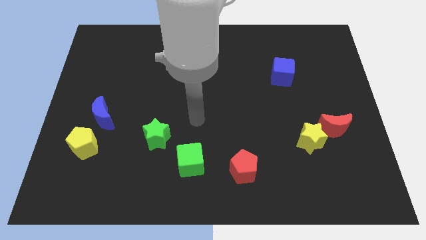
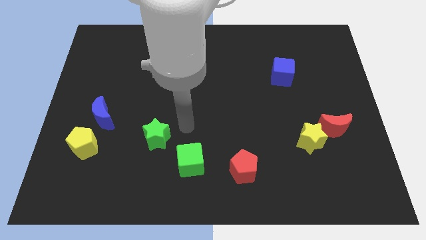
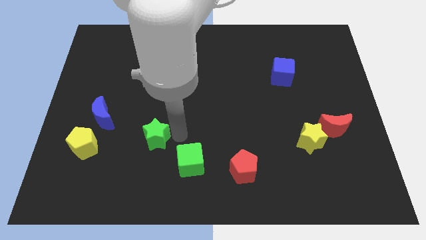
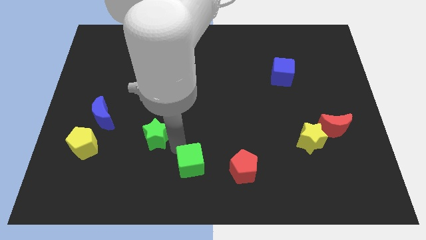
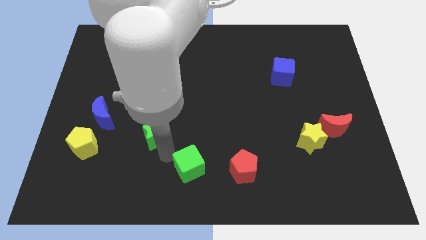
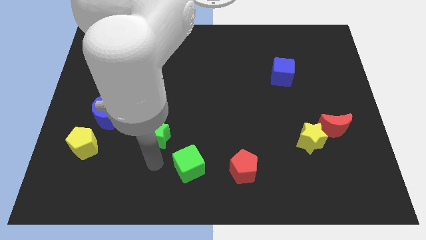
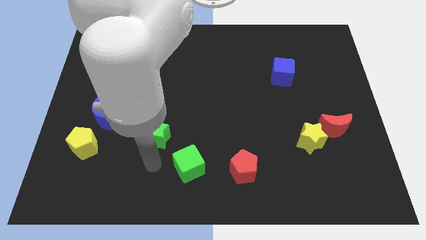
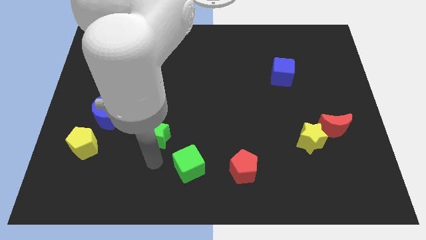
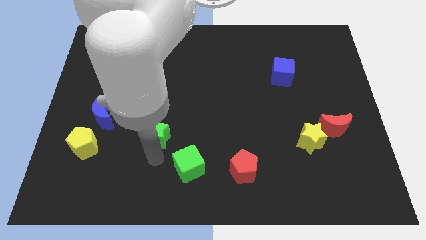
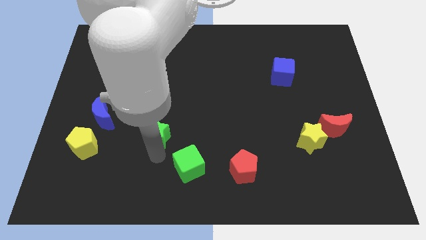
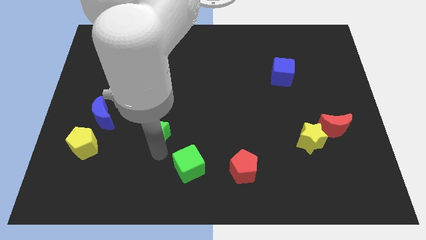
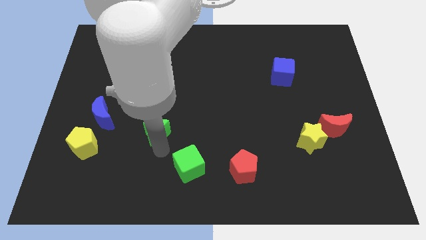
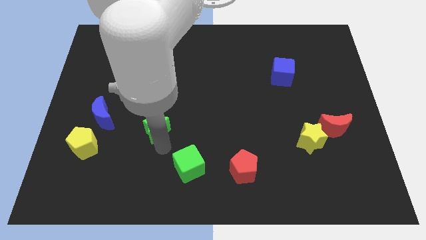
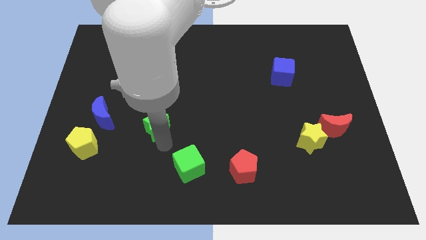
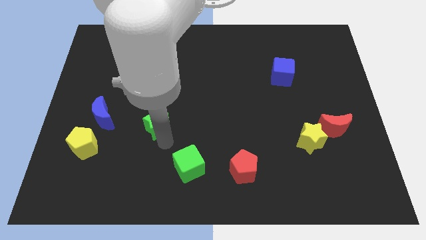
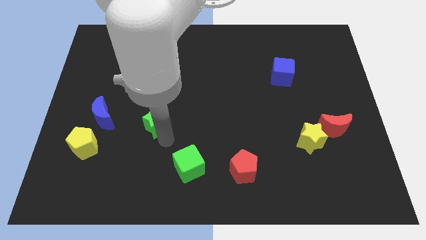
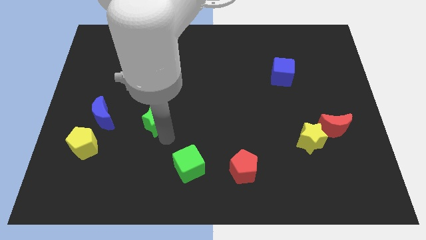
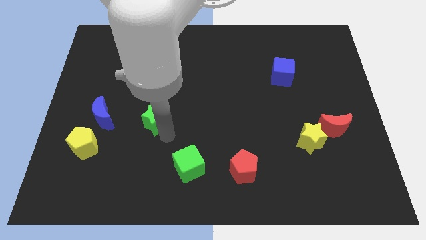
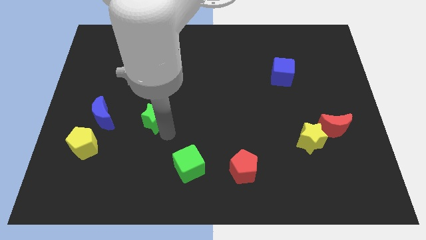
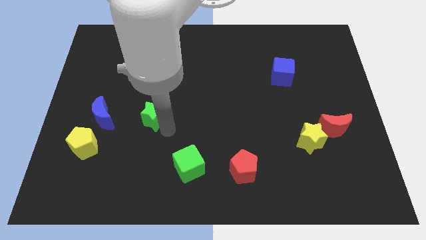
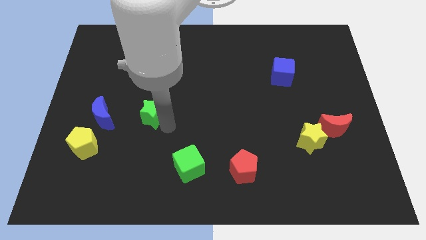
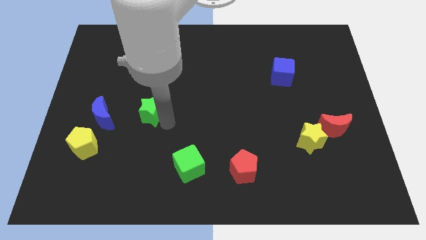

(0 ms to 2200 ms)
slightly push the green star upwards

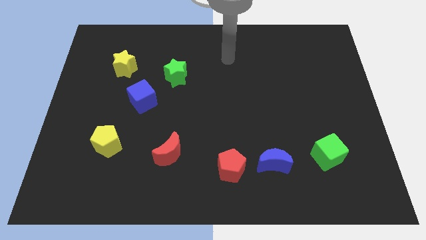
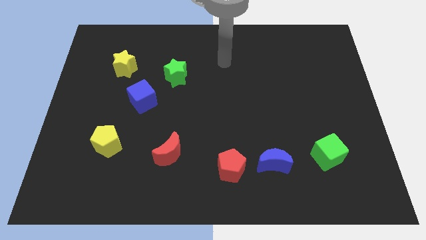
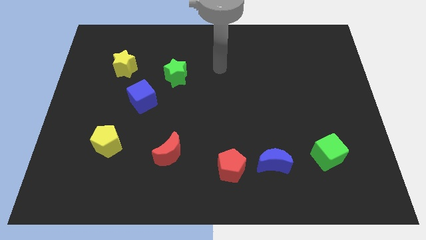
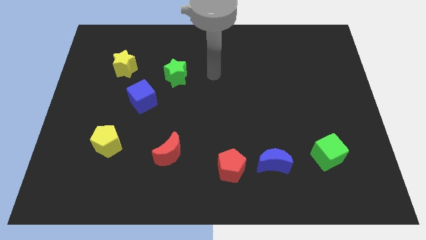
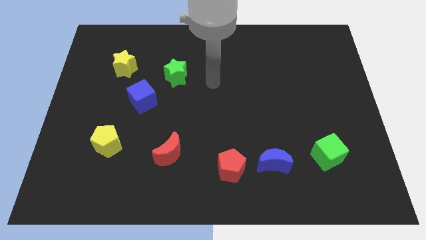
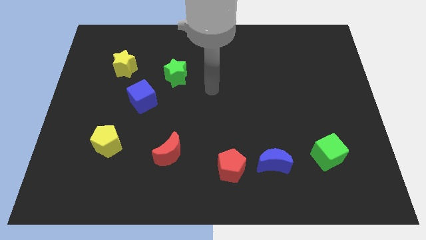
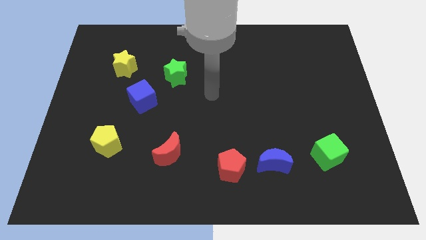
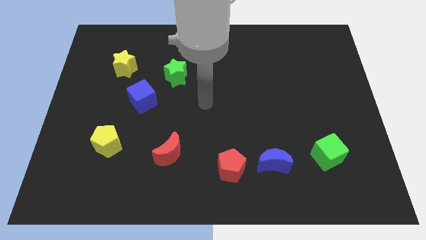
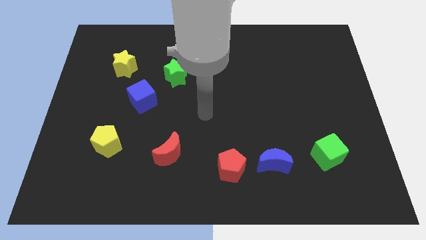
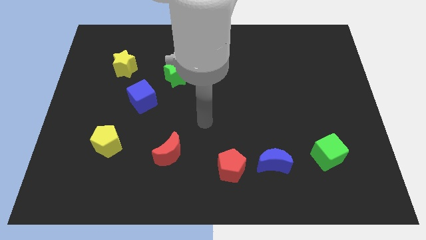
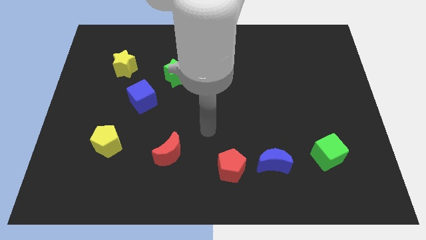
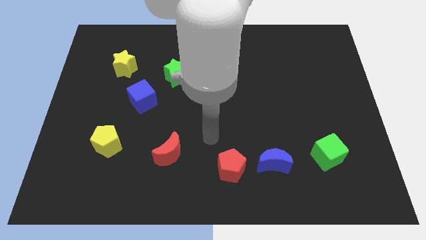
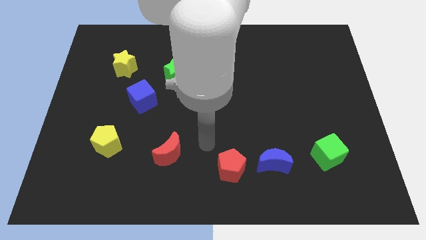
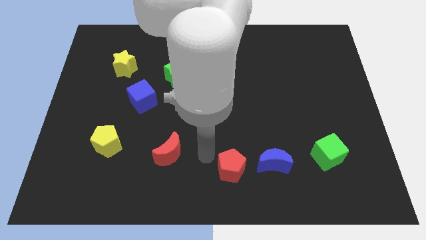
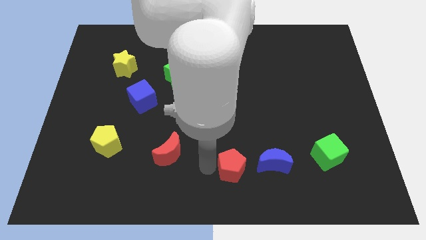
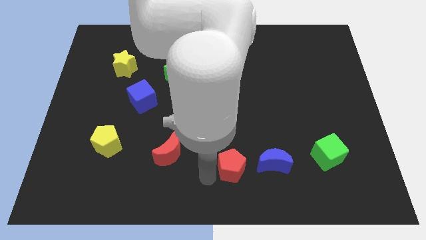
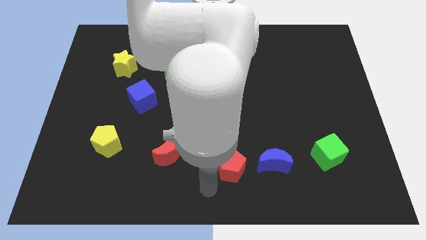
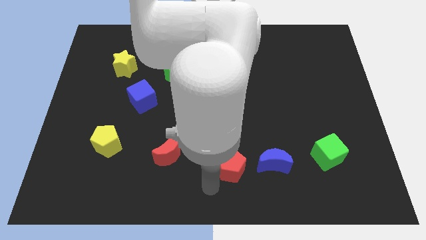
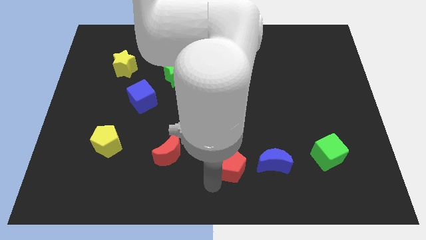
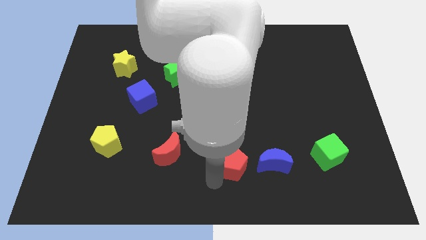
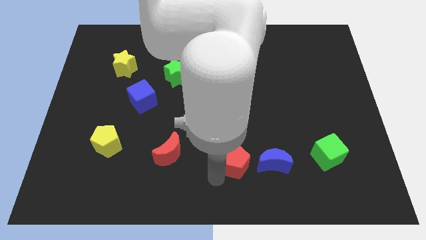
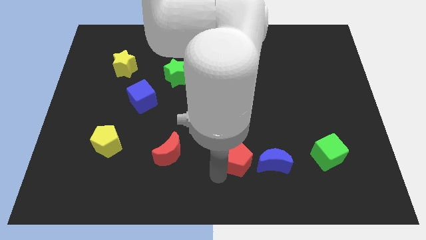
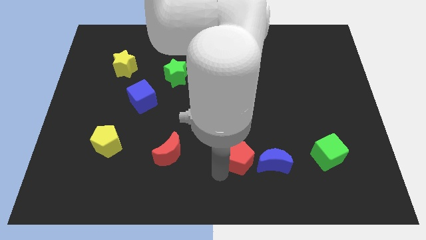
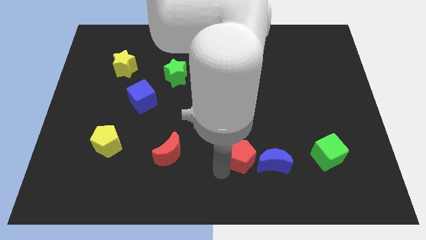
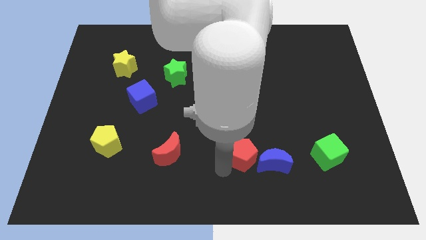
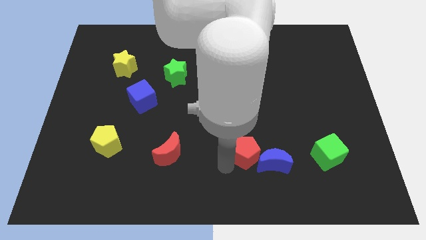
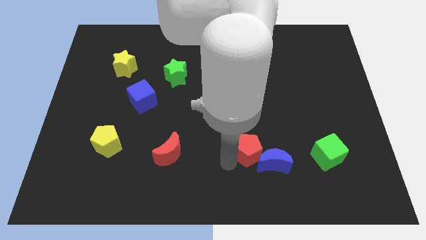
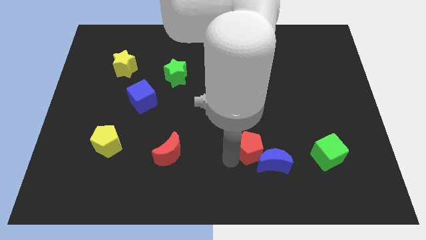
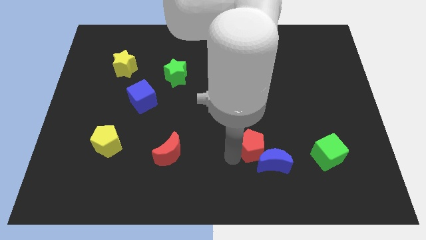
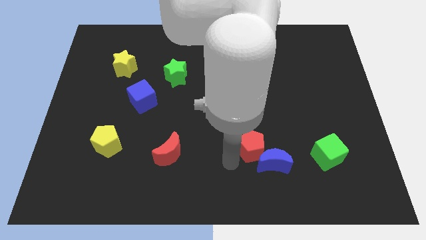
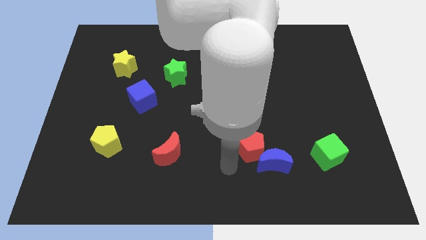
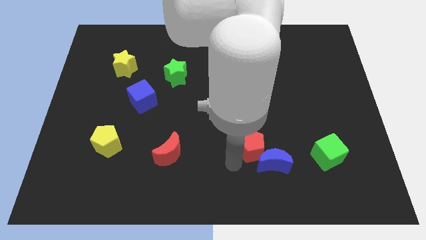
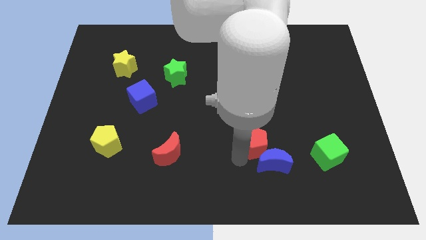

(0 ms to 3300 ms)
push the red pentagon diagonally up and right slightly

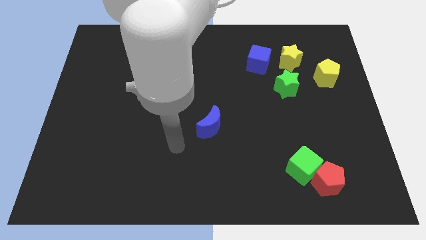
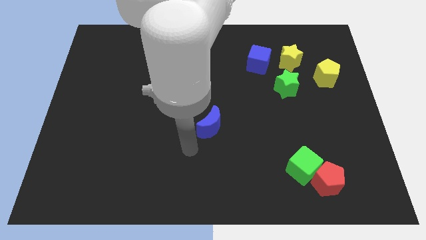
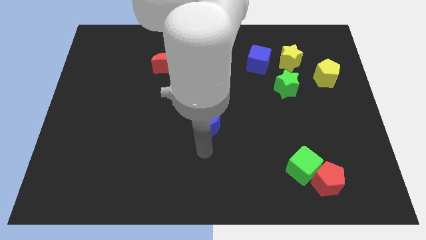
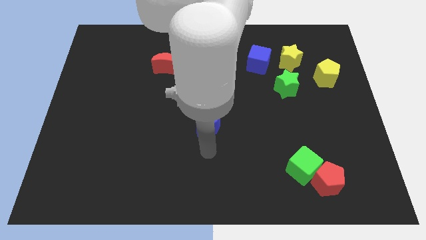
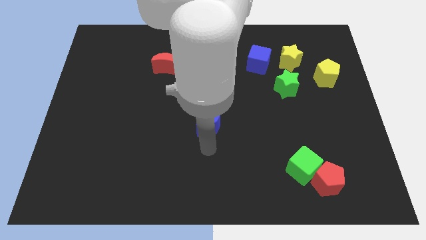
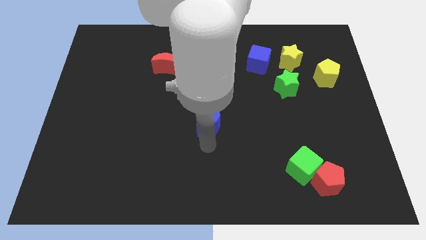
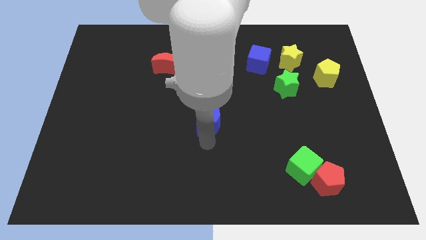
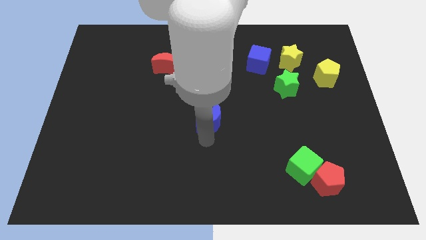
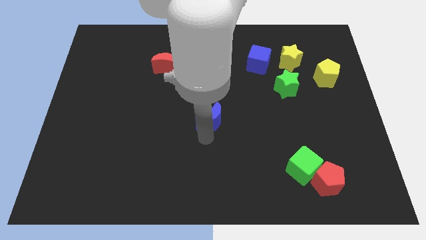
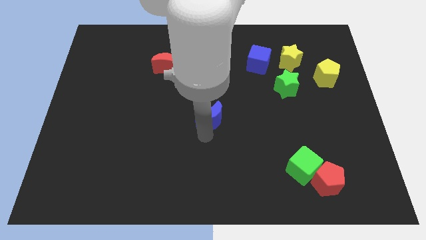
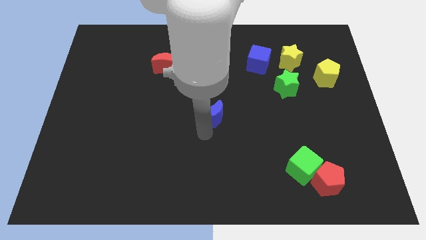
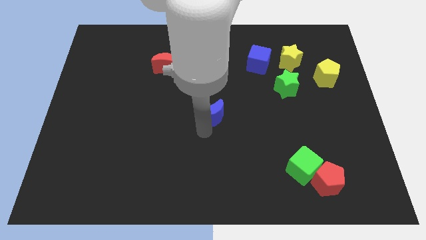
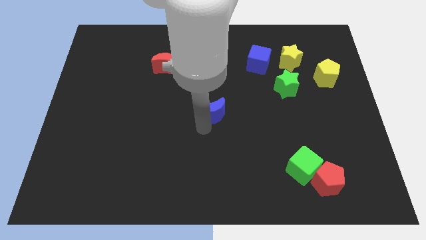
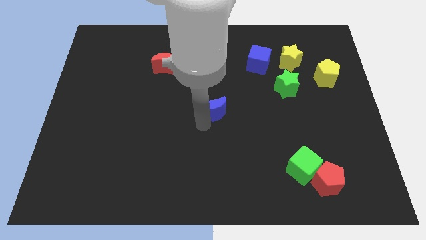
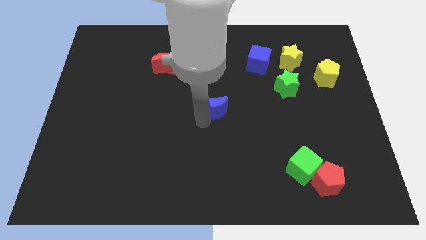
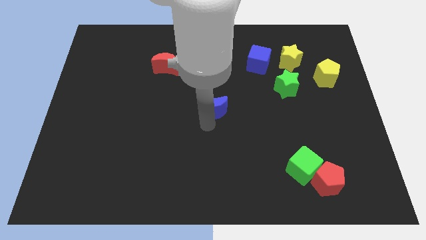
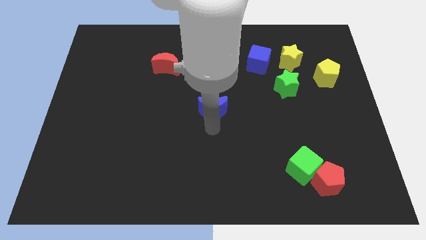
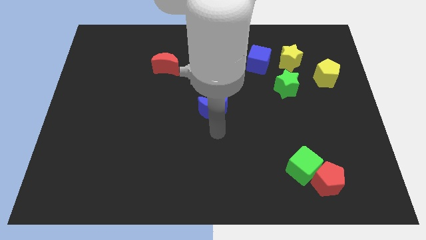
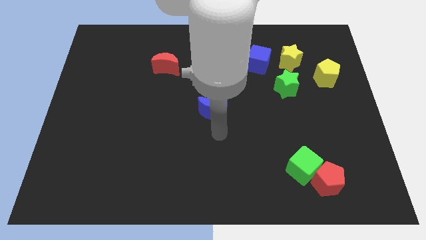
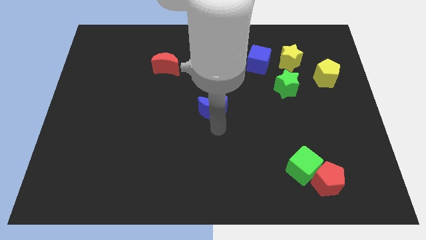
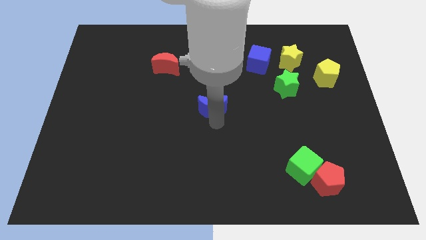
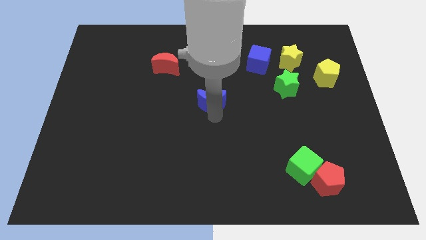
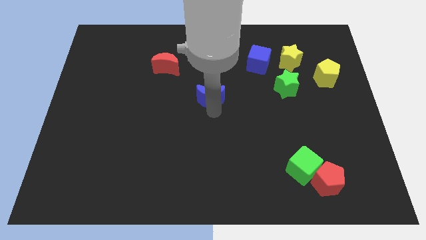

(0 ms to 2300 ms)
move the blue moon upwards a little bit
